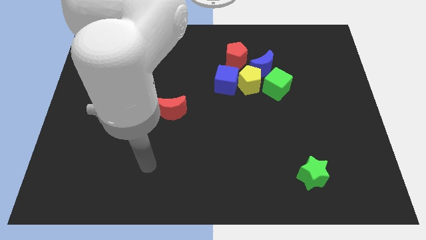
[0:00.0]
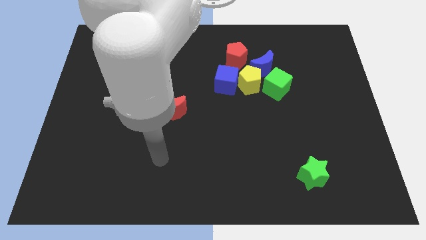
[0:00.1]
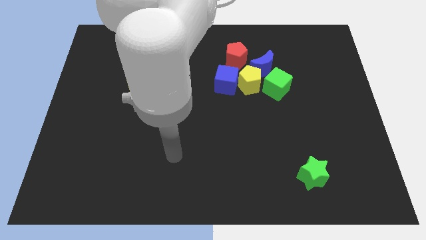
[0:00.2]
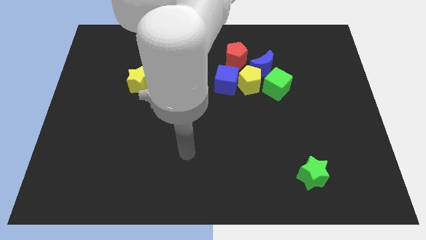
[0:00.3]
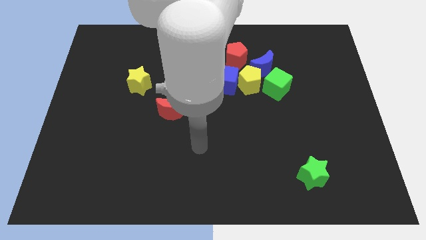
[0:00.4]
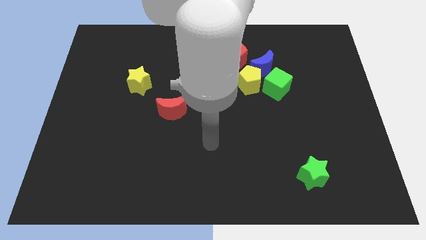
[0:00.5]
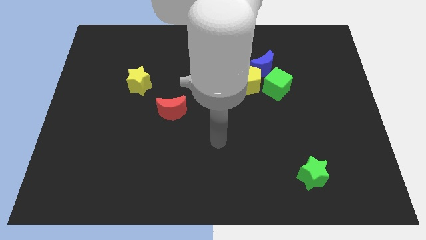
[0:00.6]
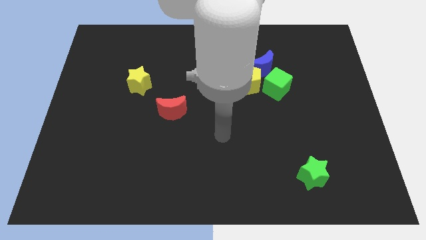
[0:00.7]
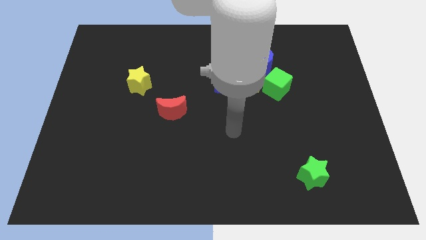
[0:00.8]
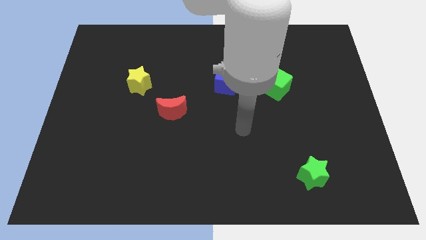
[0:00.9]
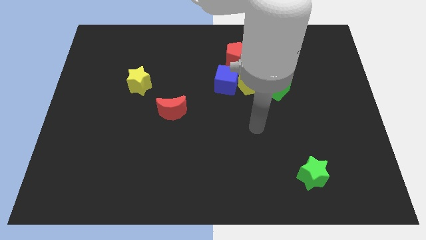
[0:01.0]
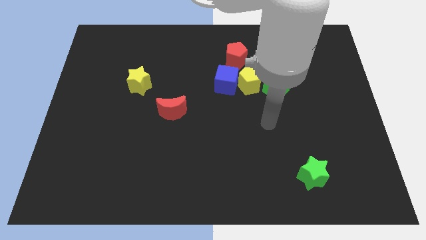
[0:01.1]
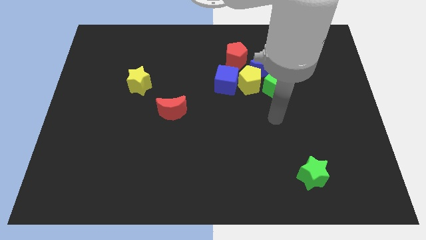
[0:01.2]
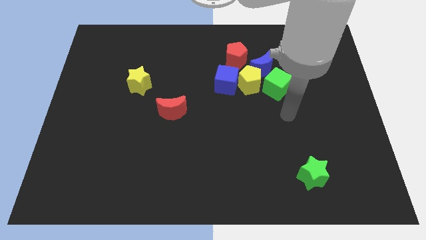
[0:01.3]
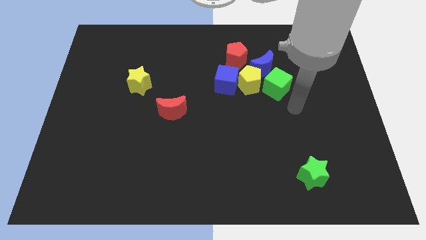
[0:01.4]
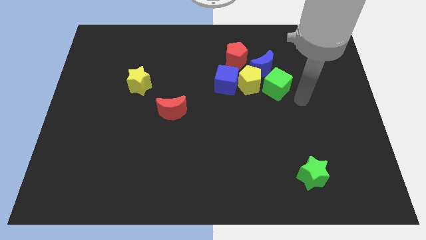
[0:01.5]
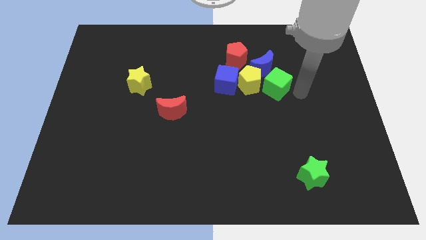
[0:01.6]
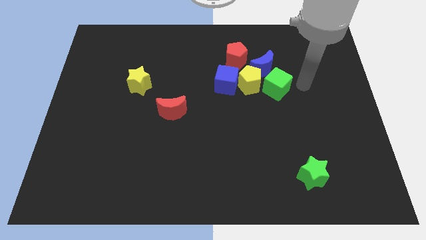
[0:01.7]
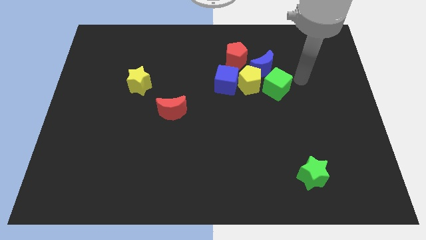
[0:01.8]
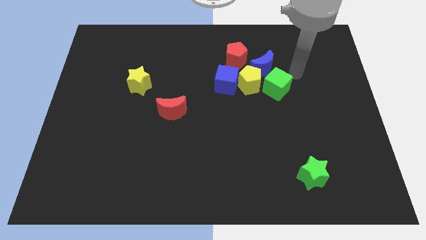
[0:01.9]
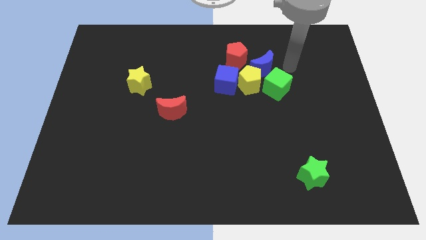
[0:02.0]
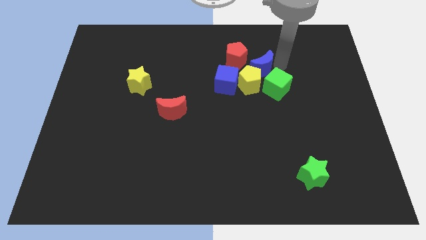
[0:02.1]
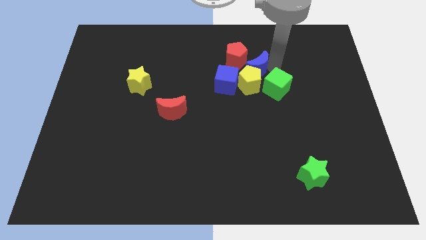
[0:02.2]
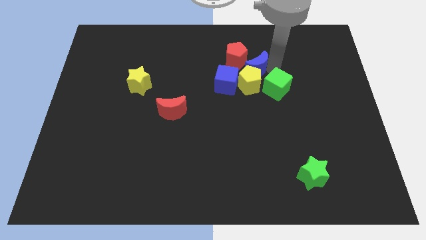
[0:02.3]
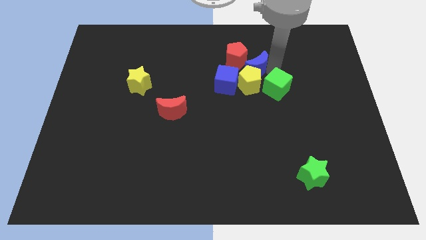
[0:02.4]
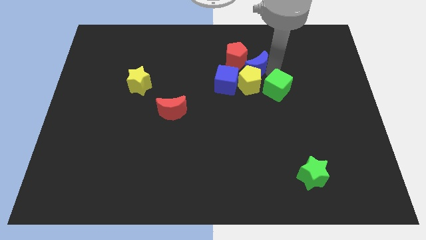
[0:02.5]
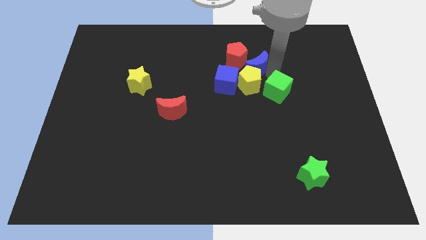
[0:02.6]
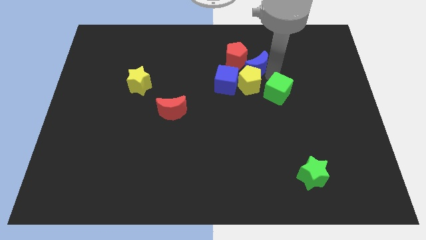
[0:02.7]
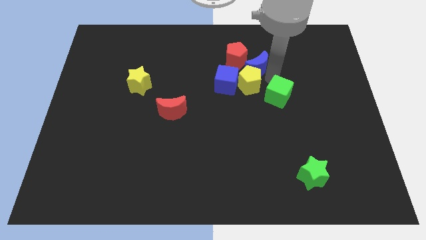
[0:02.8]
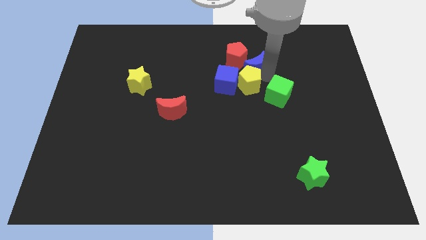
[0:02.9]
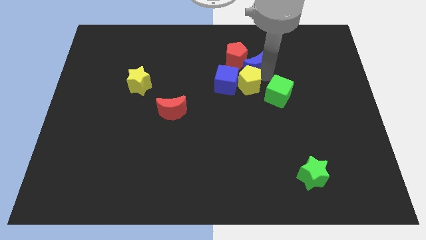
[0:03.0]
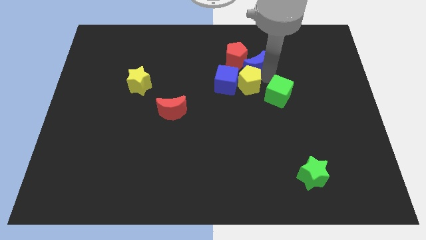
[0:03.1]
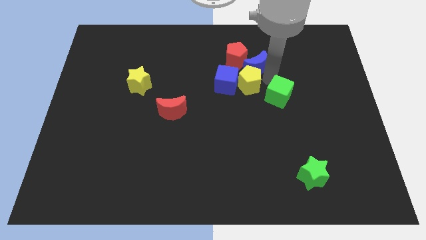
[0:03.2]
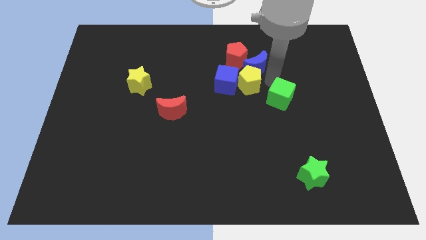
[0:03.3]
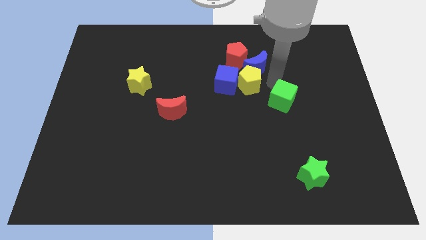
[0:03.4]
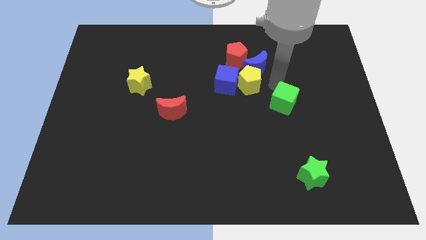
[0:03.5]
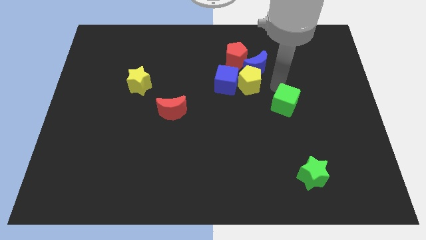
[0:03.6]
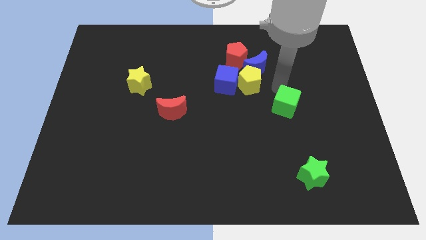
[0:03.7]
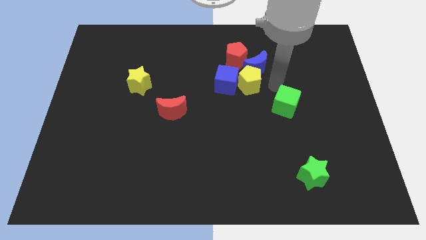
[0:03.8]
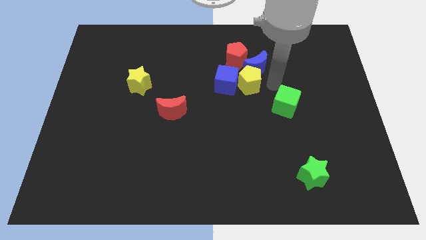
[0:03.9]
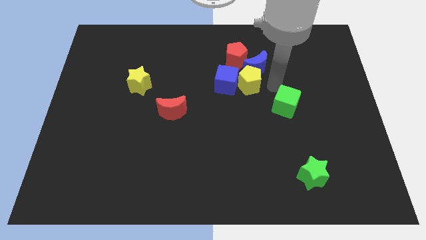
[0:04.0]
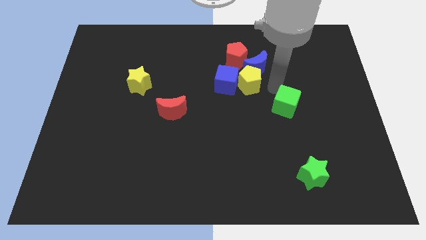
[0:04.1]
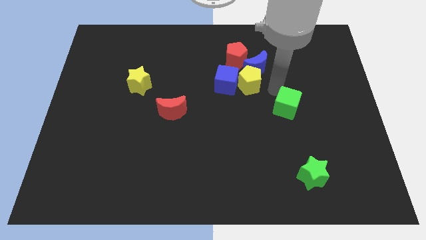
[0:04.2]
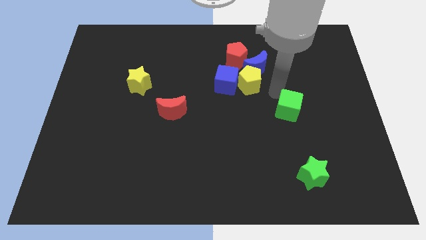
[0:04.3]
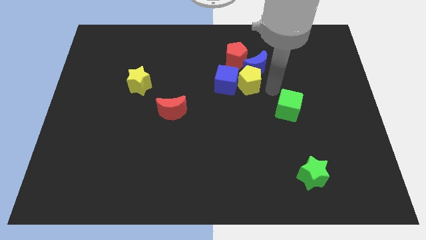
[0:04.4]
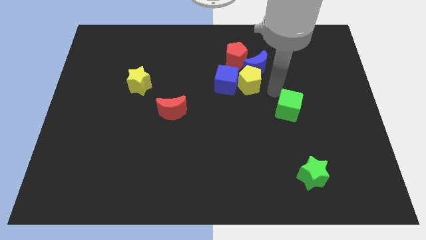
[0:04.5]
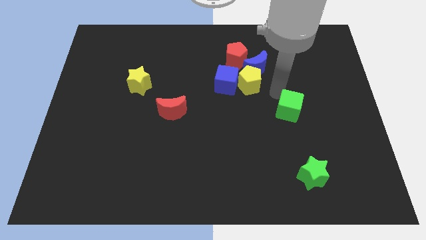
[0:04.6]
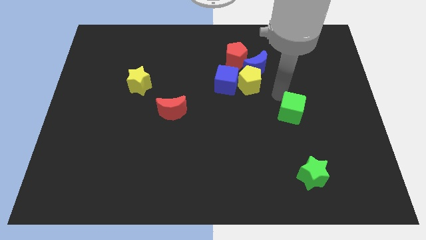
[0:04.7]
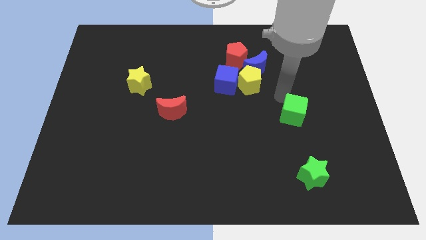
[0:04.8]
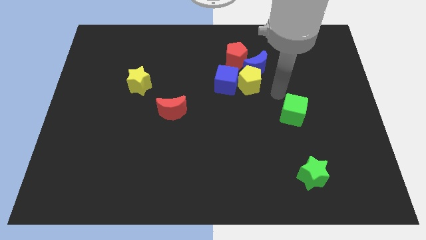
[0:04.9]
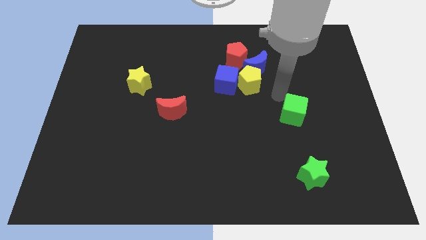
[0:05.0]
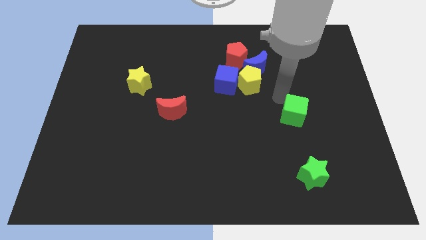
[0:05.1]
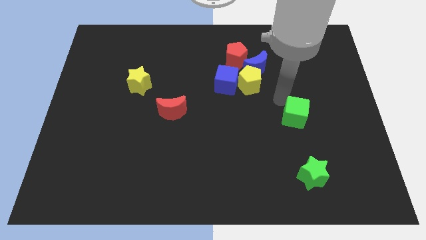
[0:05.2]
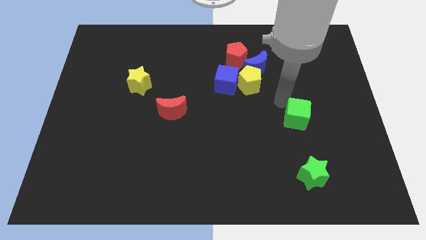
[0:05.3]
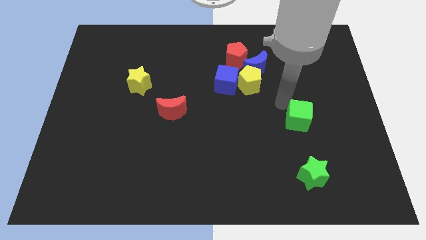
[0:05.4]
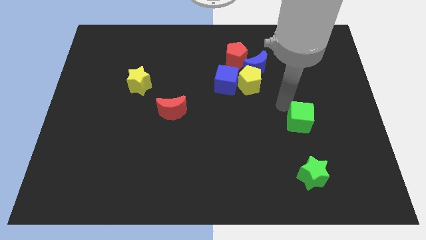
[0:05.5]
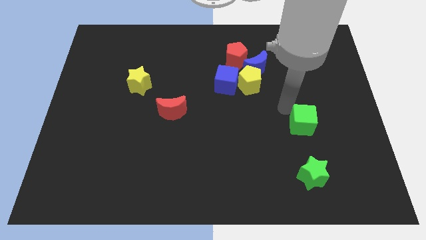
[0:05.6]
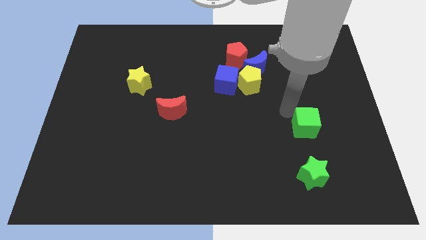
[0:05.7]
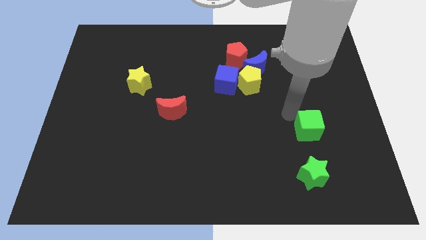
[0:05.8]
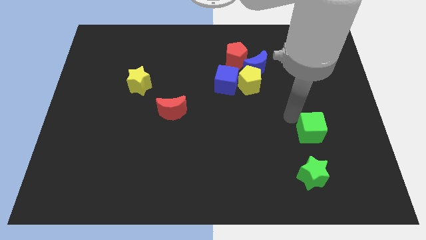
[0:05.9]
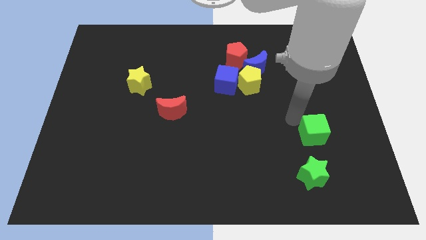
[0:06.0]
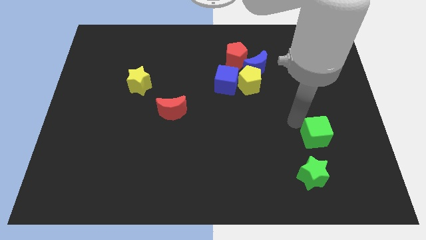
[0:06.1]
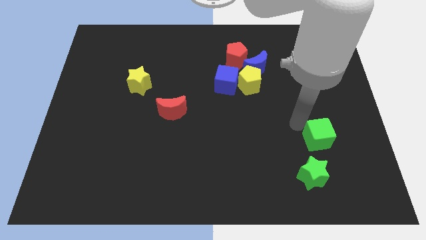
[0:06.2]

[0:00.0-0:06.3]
slide the green cube diagonally up and to the right of the green star

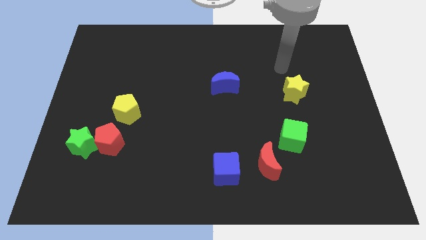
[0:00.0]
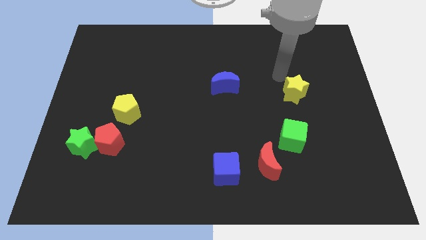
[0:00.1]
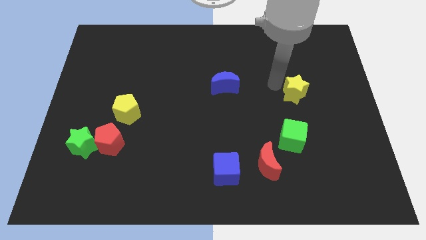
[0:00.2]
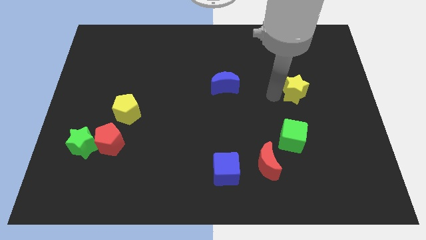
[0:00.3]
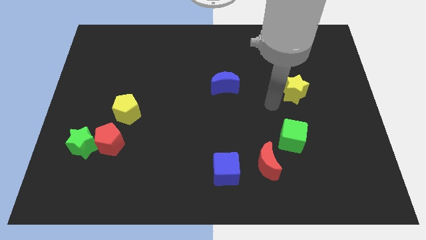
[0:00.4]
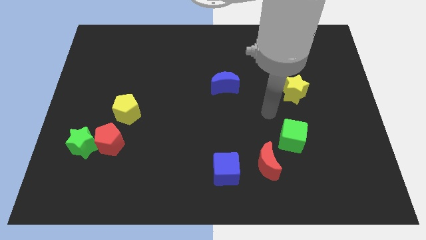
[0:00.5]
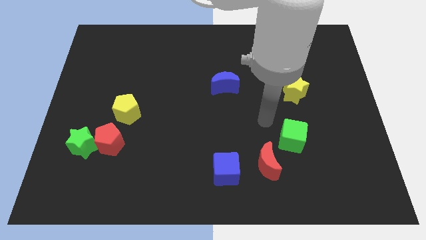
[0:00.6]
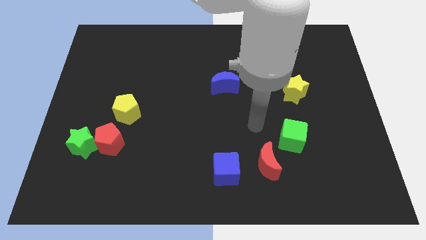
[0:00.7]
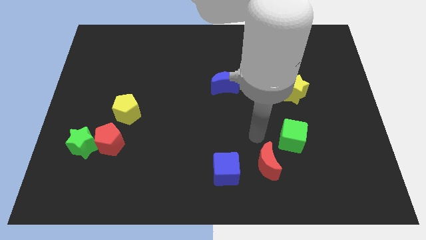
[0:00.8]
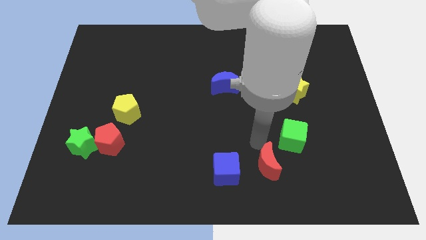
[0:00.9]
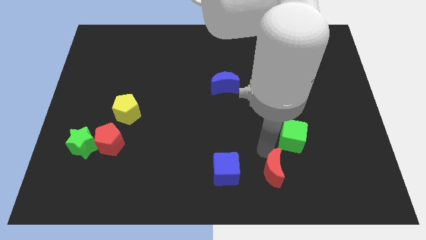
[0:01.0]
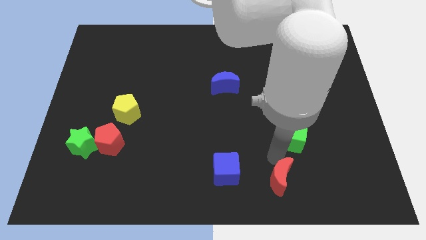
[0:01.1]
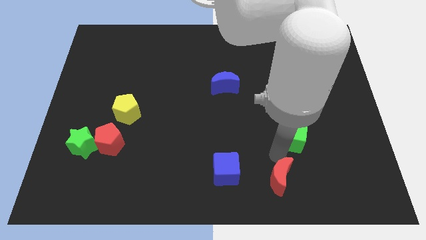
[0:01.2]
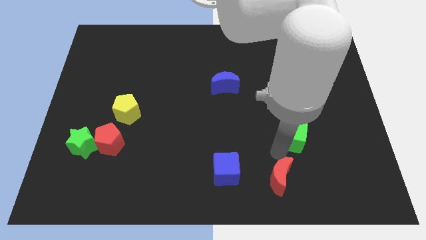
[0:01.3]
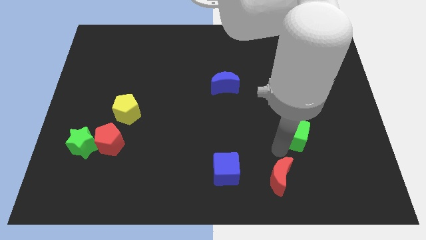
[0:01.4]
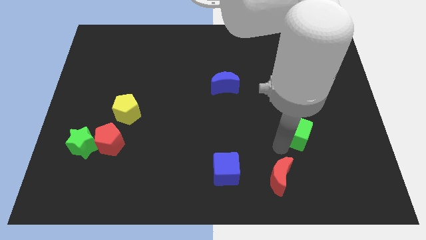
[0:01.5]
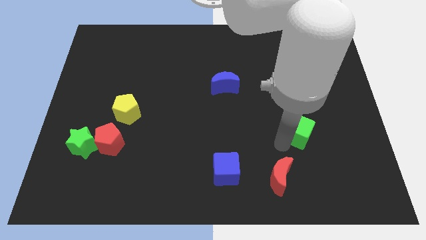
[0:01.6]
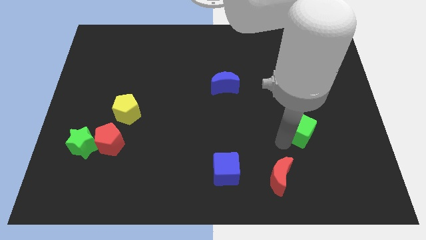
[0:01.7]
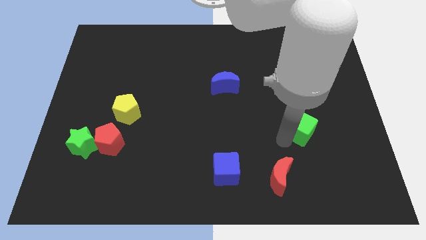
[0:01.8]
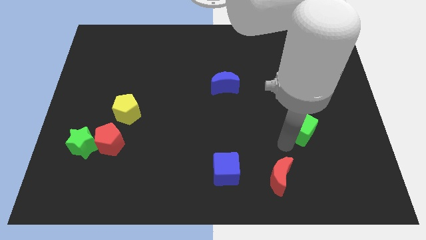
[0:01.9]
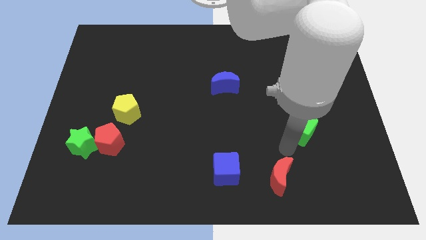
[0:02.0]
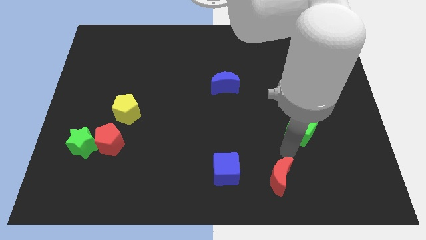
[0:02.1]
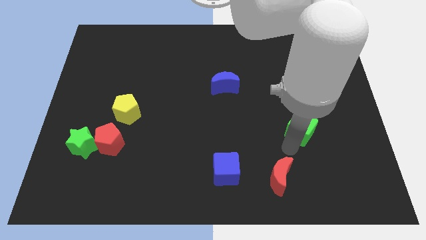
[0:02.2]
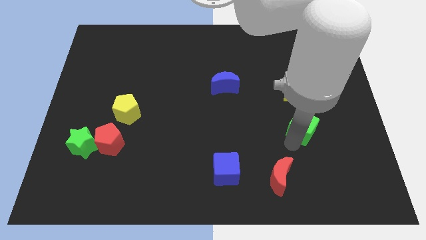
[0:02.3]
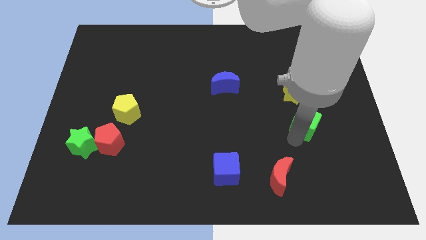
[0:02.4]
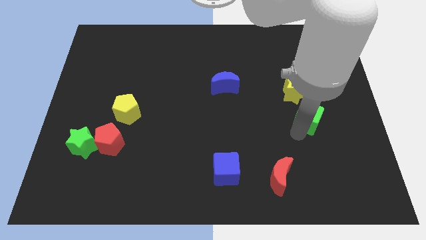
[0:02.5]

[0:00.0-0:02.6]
slide the green cube diagonally down and to the right of the yellow star
